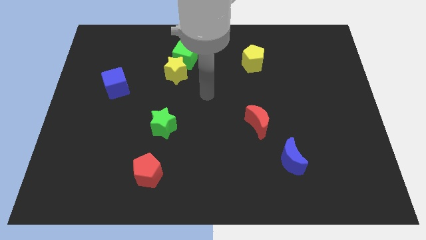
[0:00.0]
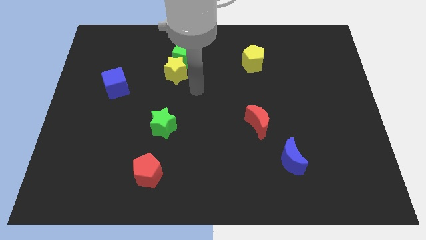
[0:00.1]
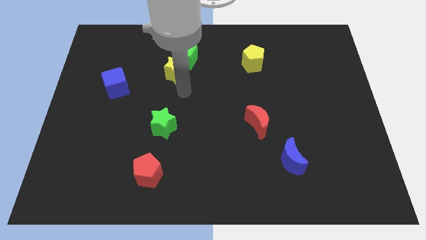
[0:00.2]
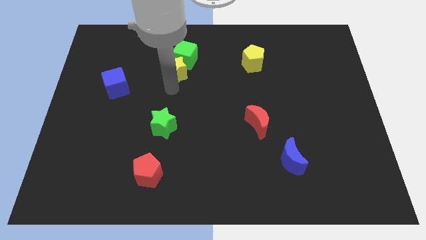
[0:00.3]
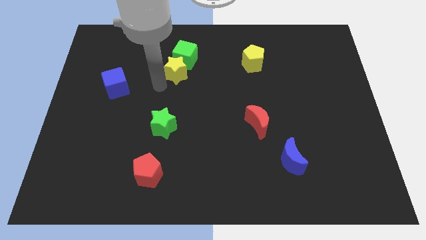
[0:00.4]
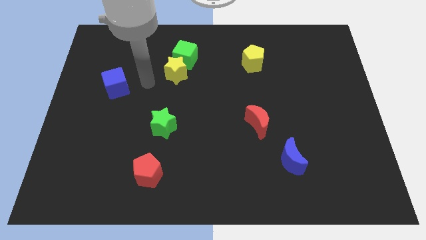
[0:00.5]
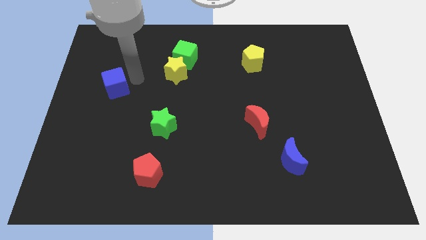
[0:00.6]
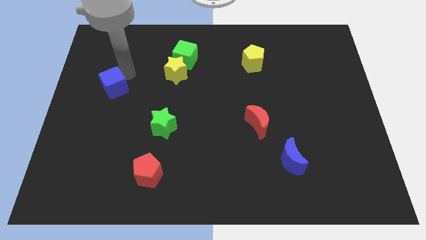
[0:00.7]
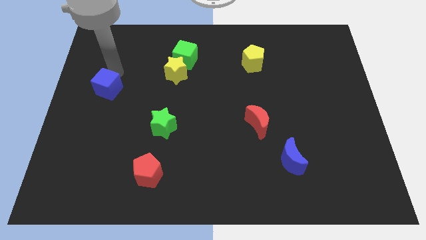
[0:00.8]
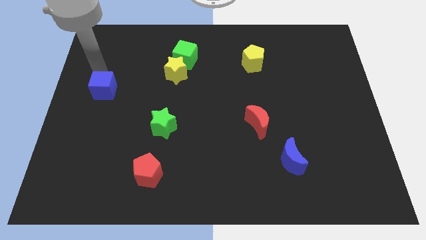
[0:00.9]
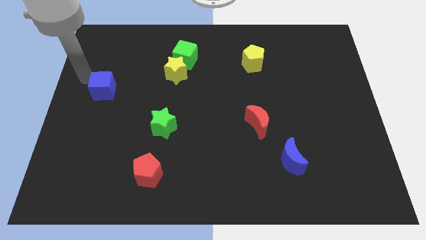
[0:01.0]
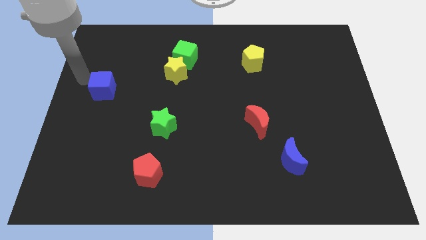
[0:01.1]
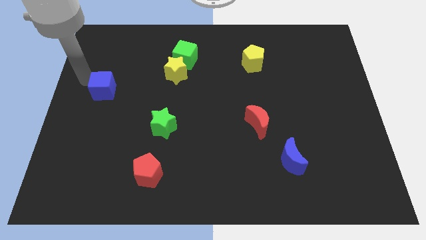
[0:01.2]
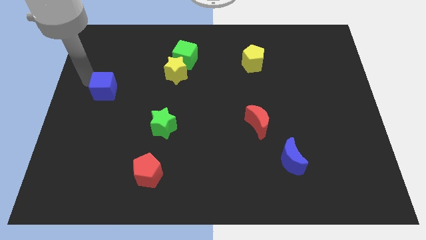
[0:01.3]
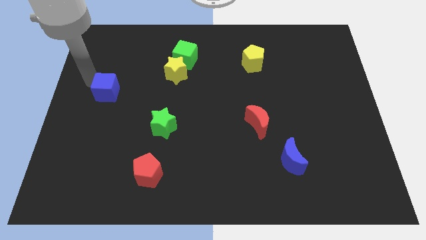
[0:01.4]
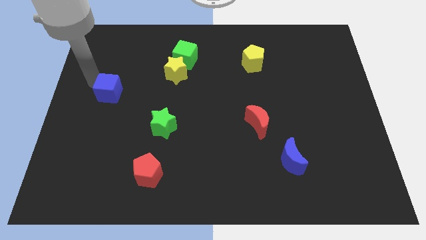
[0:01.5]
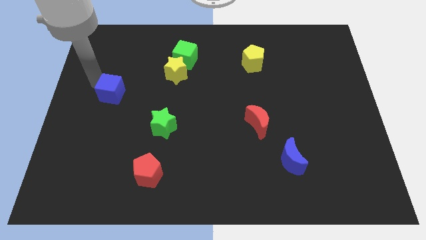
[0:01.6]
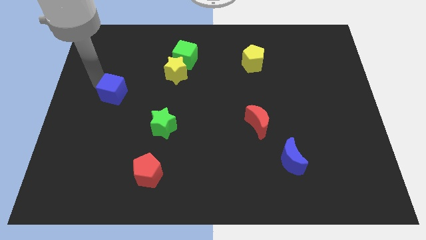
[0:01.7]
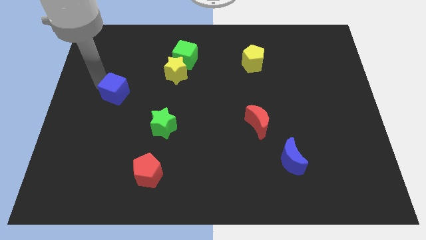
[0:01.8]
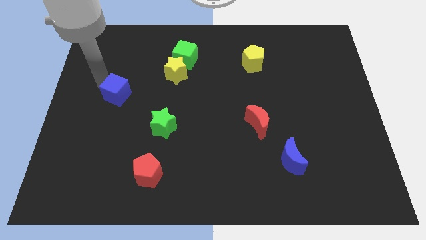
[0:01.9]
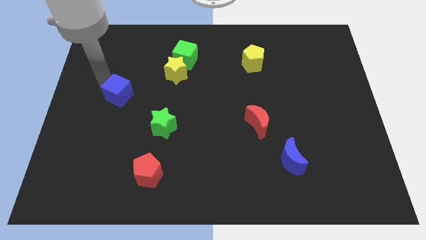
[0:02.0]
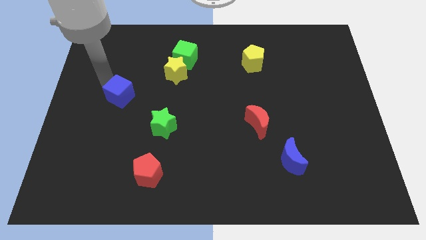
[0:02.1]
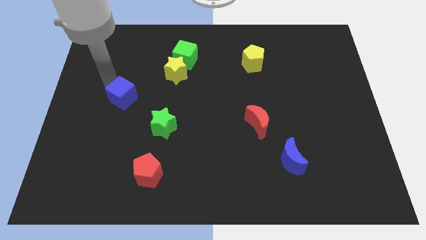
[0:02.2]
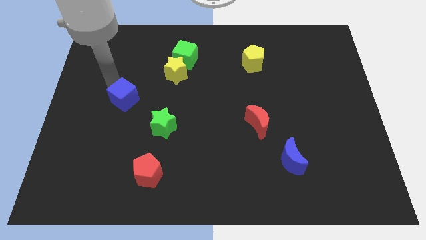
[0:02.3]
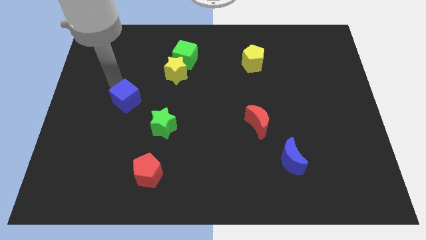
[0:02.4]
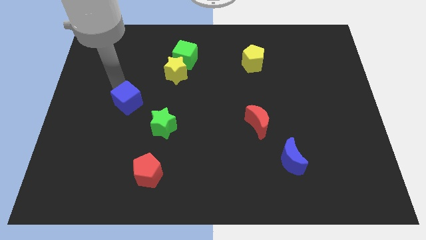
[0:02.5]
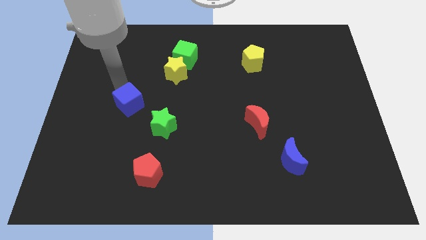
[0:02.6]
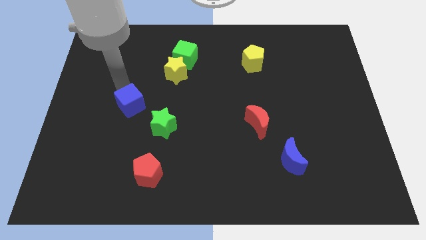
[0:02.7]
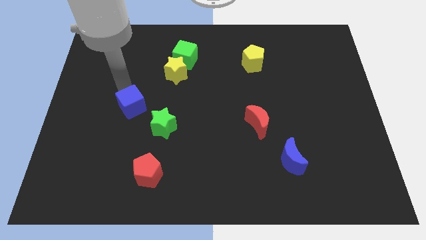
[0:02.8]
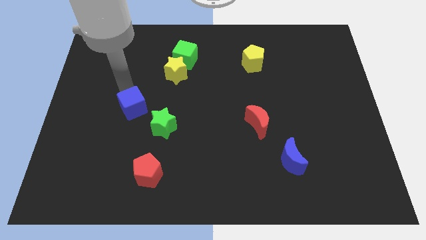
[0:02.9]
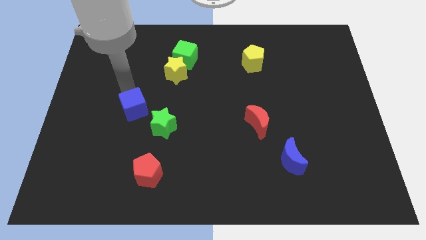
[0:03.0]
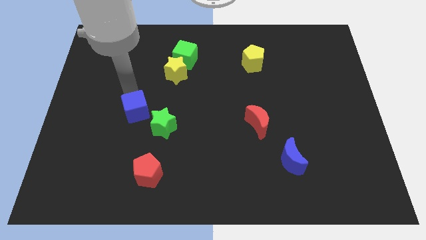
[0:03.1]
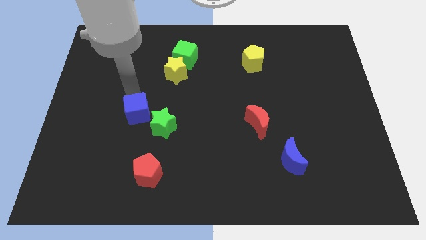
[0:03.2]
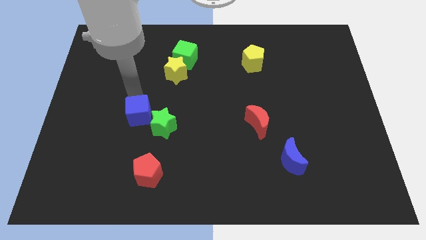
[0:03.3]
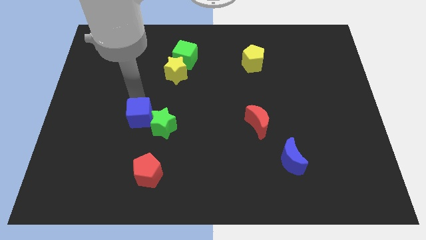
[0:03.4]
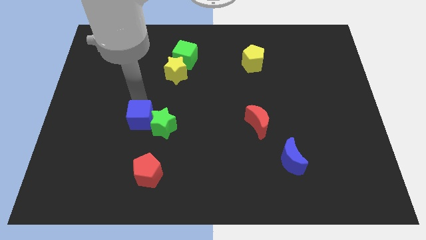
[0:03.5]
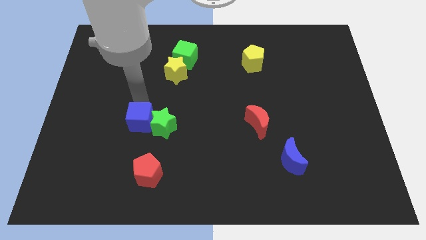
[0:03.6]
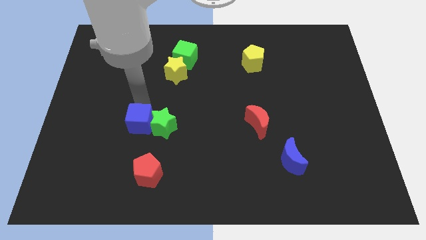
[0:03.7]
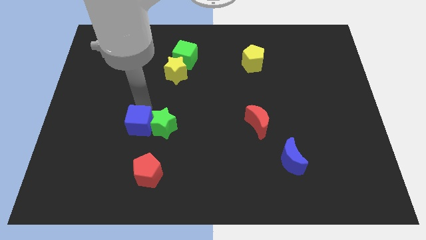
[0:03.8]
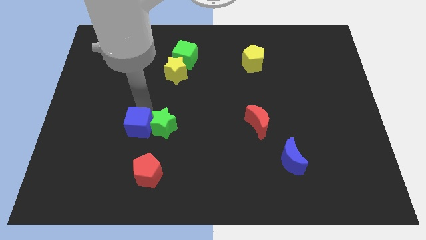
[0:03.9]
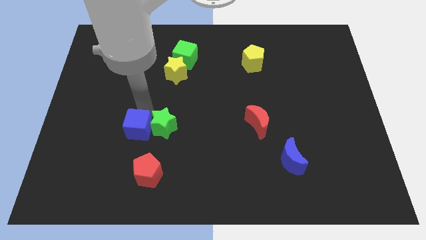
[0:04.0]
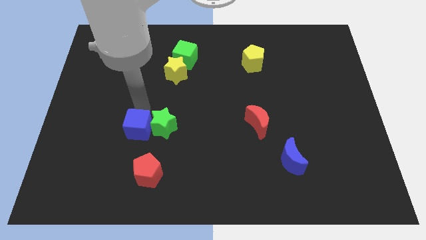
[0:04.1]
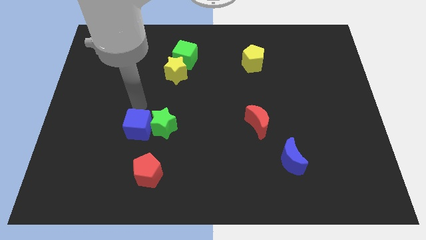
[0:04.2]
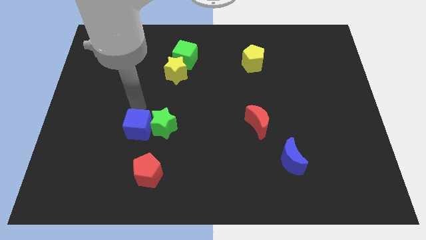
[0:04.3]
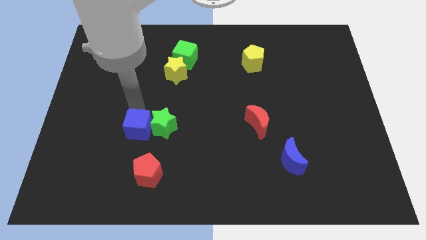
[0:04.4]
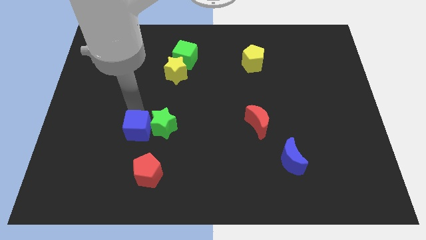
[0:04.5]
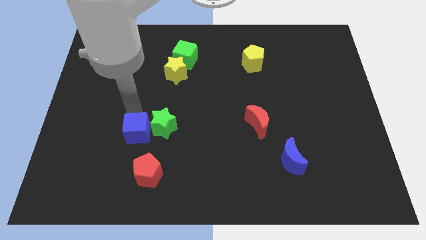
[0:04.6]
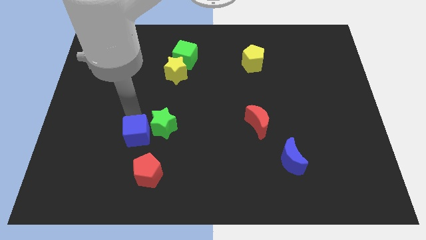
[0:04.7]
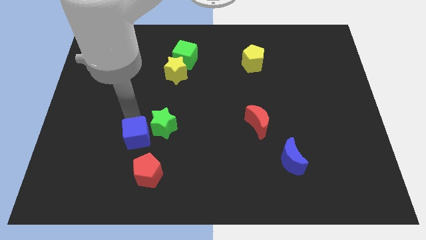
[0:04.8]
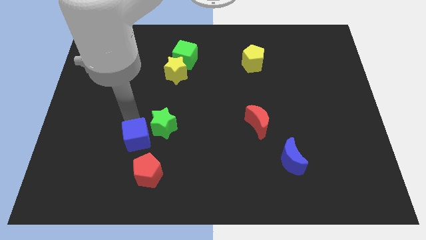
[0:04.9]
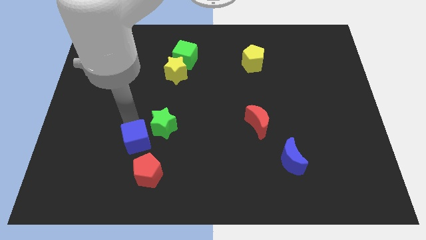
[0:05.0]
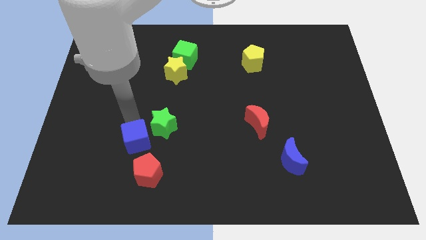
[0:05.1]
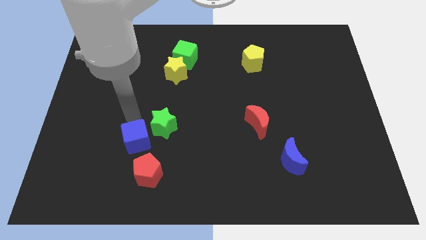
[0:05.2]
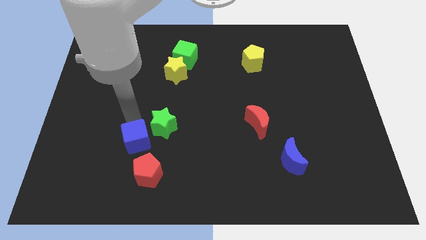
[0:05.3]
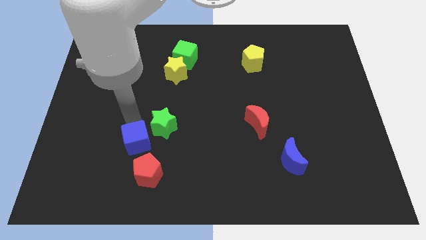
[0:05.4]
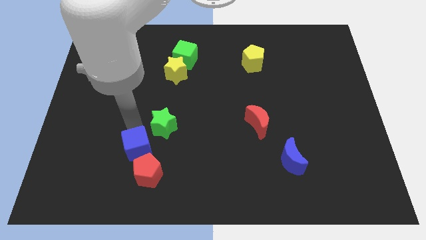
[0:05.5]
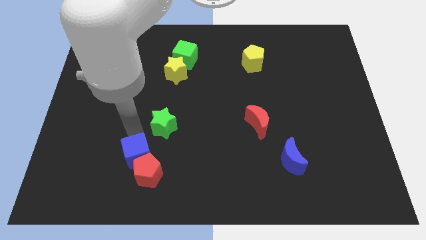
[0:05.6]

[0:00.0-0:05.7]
slide the blue cube to the red pentagon

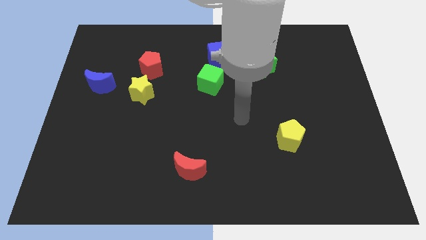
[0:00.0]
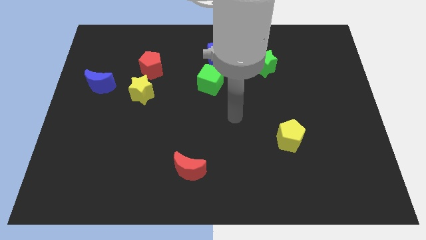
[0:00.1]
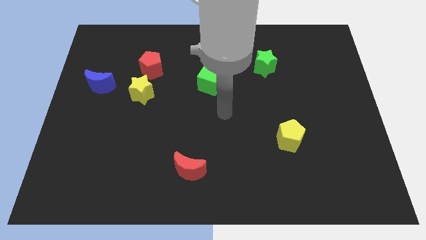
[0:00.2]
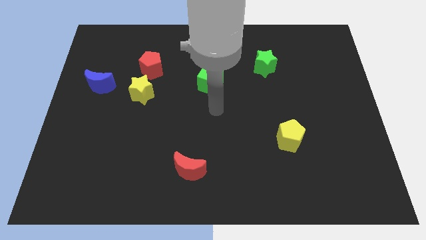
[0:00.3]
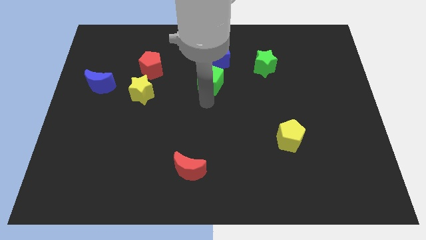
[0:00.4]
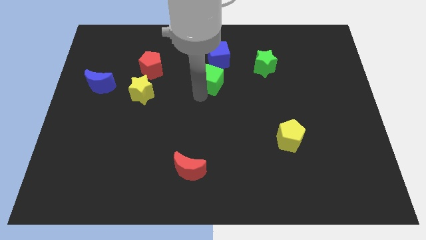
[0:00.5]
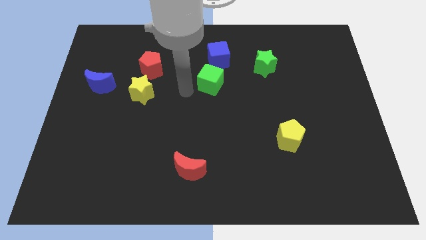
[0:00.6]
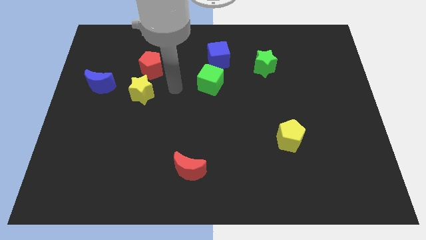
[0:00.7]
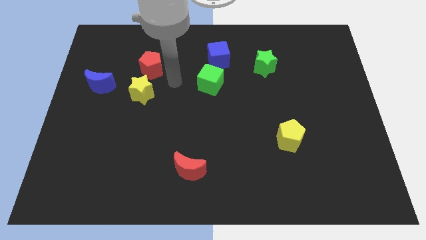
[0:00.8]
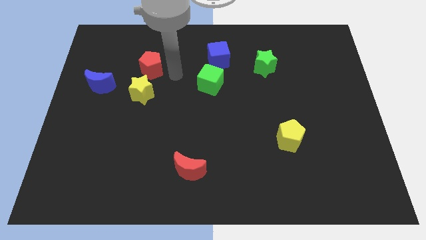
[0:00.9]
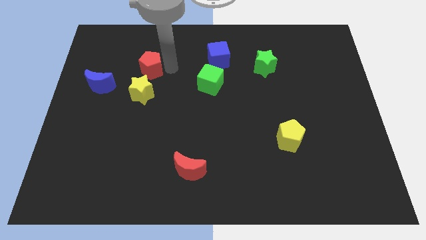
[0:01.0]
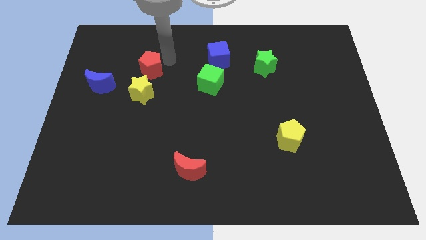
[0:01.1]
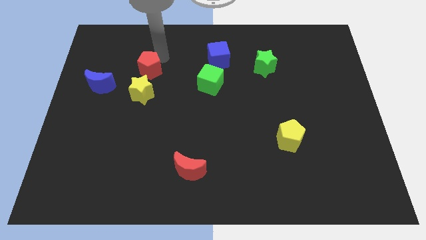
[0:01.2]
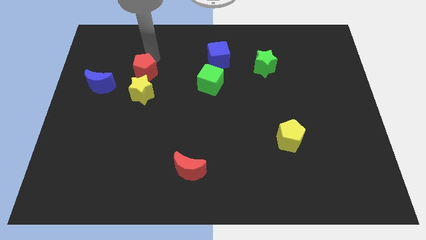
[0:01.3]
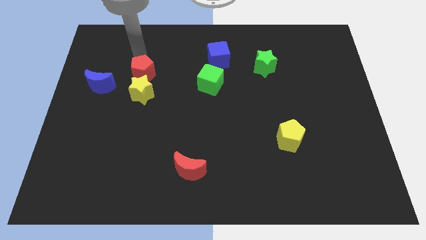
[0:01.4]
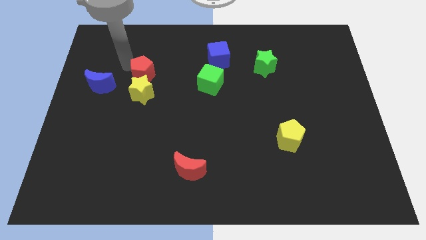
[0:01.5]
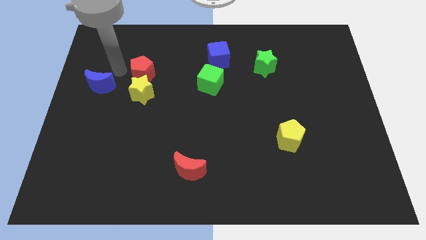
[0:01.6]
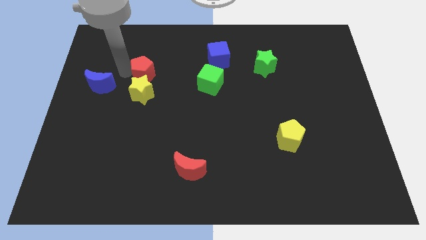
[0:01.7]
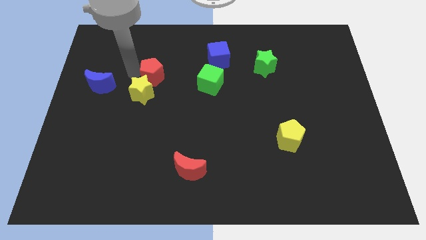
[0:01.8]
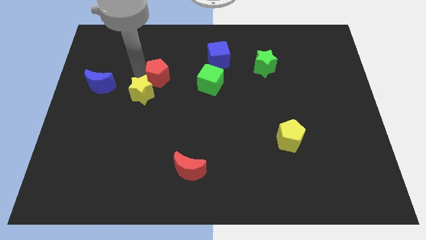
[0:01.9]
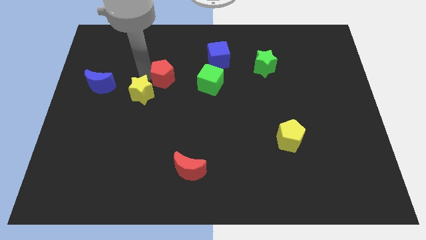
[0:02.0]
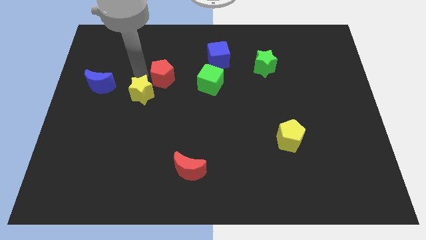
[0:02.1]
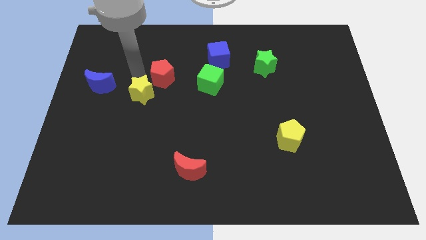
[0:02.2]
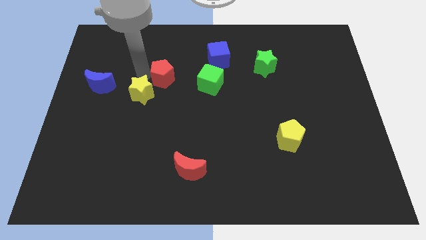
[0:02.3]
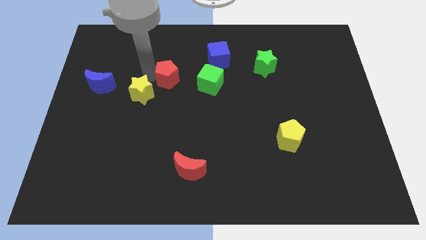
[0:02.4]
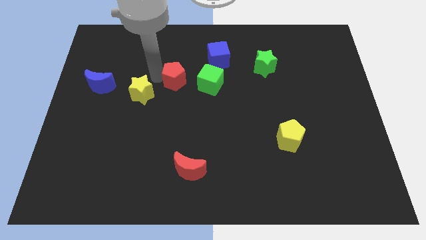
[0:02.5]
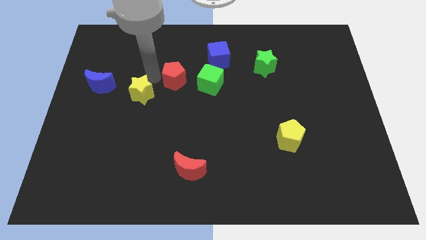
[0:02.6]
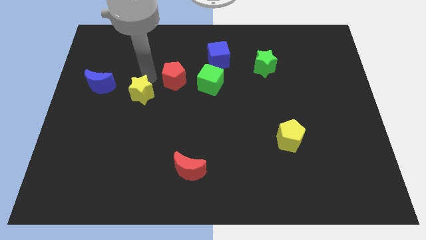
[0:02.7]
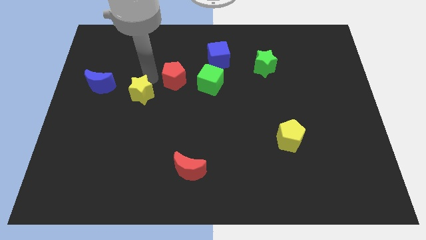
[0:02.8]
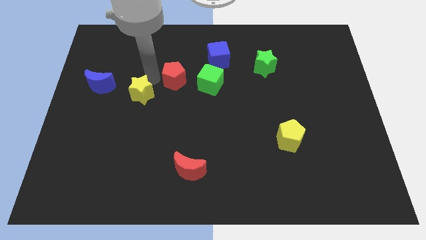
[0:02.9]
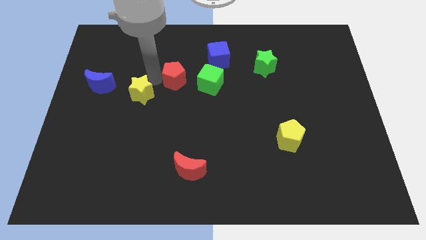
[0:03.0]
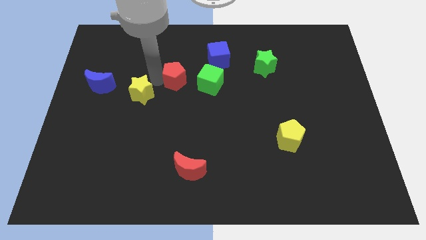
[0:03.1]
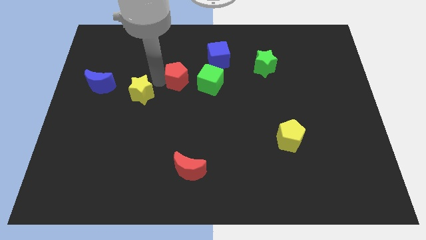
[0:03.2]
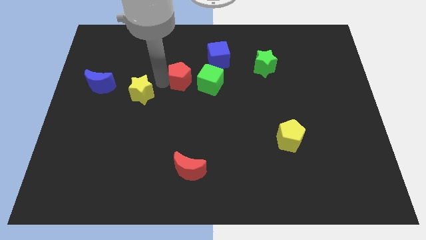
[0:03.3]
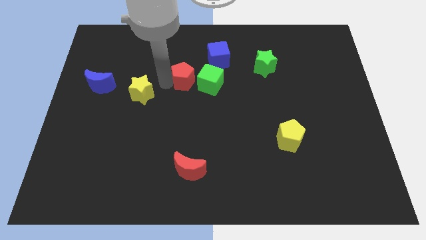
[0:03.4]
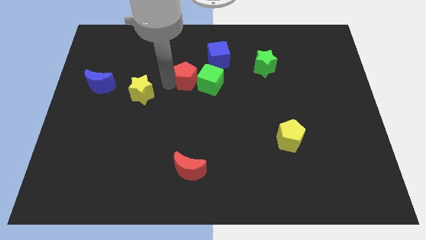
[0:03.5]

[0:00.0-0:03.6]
slide the red pentagon to the green cube
